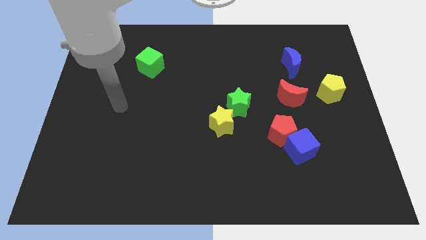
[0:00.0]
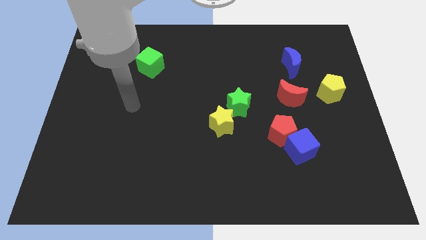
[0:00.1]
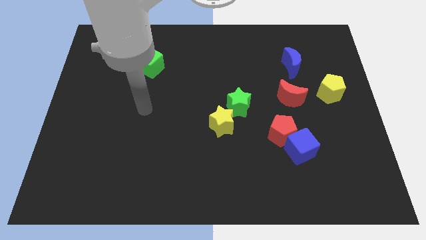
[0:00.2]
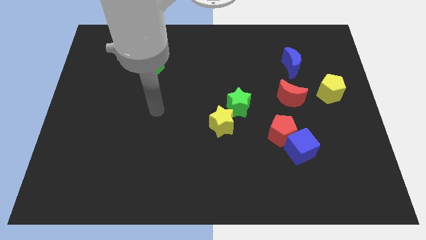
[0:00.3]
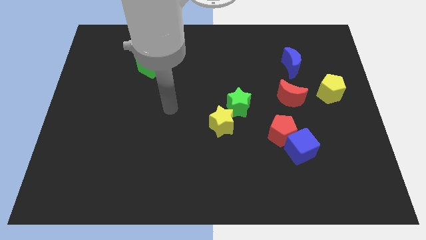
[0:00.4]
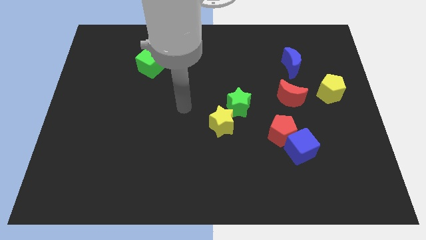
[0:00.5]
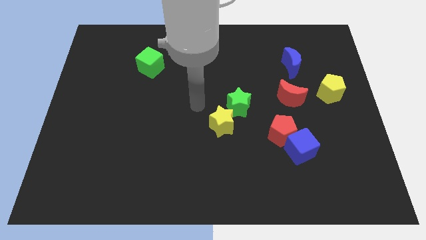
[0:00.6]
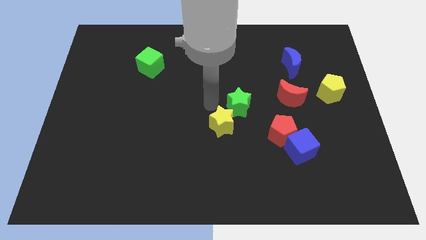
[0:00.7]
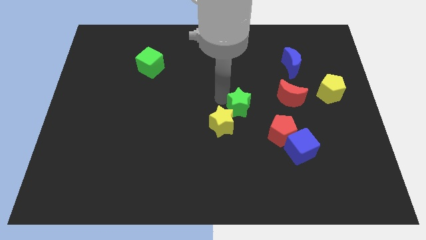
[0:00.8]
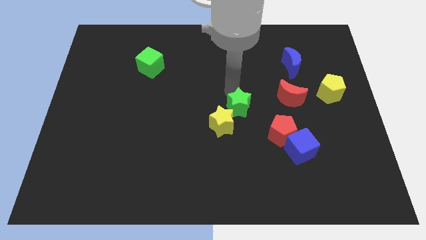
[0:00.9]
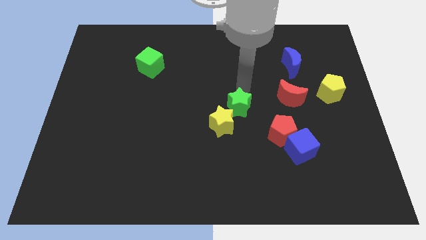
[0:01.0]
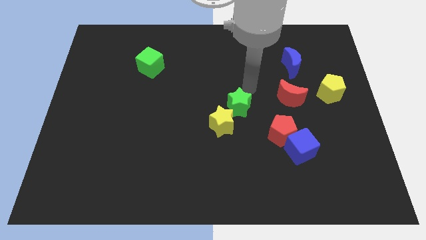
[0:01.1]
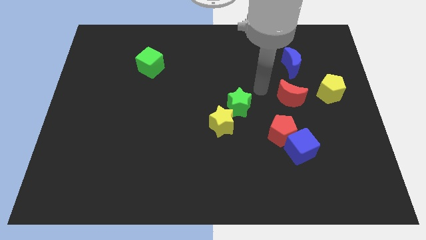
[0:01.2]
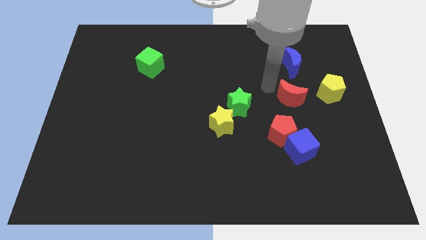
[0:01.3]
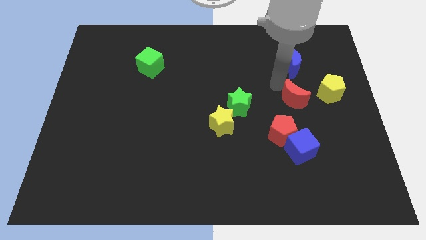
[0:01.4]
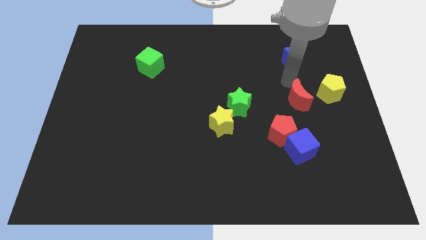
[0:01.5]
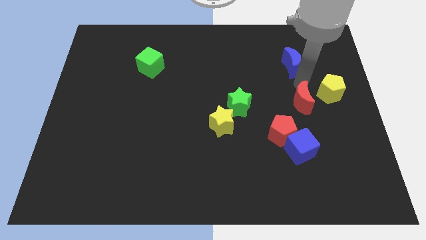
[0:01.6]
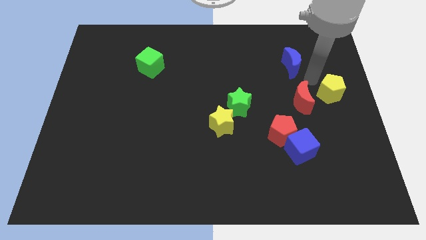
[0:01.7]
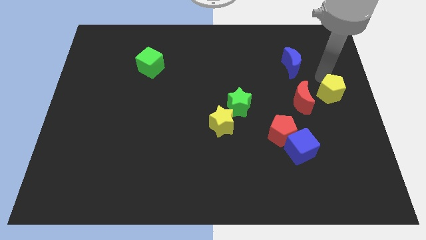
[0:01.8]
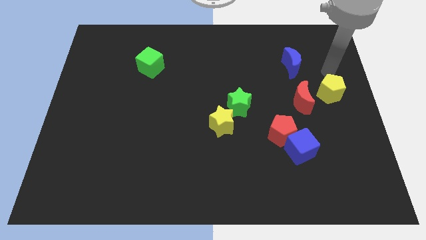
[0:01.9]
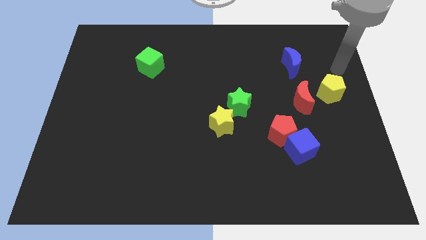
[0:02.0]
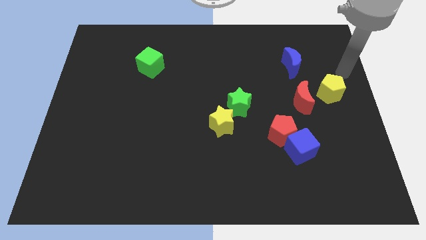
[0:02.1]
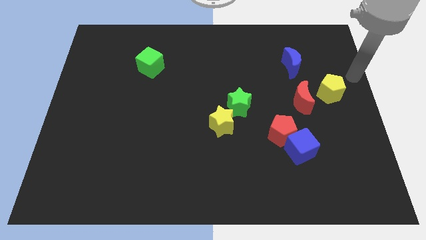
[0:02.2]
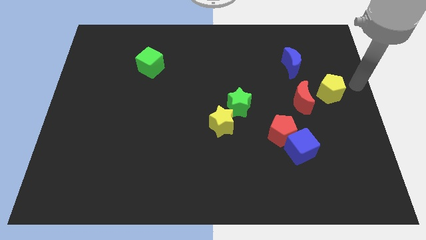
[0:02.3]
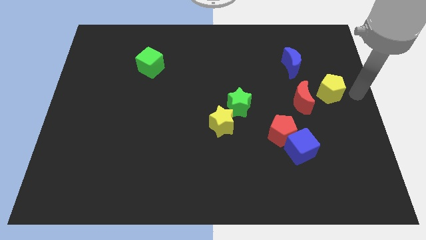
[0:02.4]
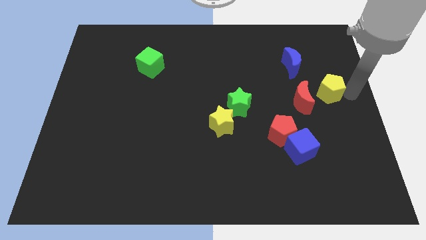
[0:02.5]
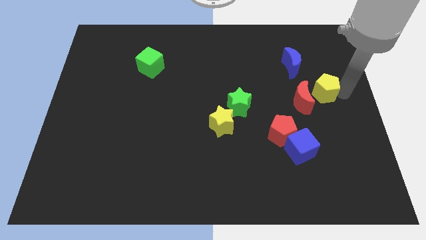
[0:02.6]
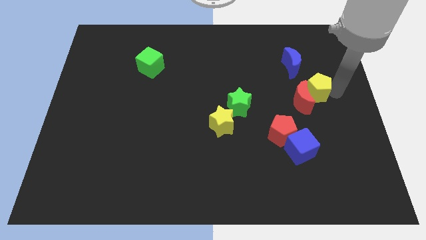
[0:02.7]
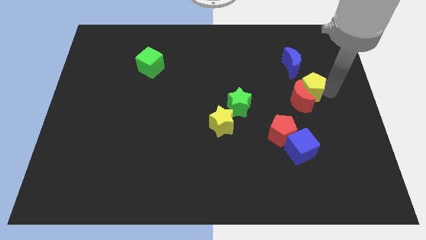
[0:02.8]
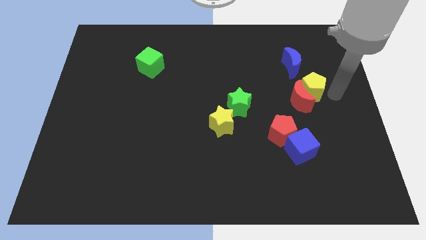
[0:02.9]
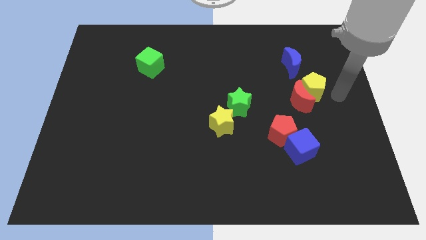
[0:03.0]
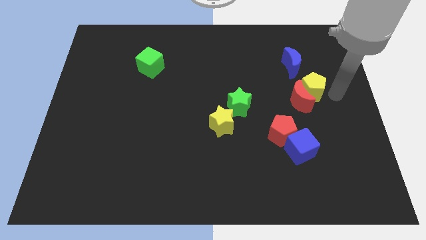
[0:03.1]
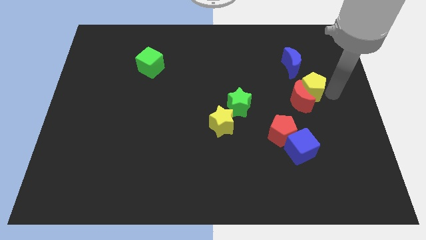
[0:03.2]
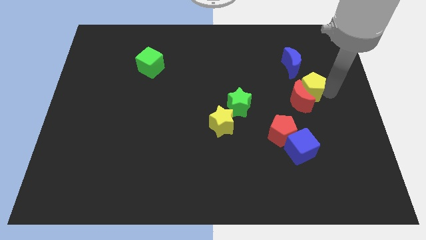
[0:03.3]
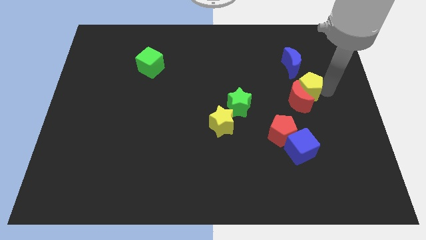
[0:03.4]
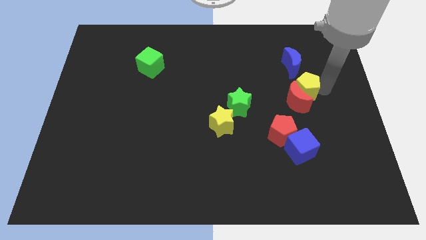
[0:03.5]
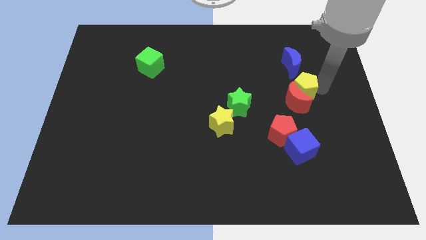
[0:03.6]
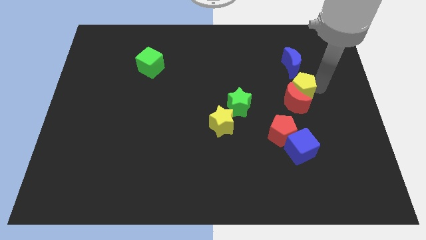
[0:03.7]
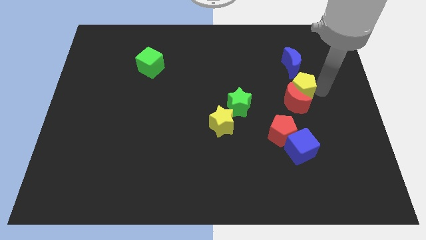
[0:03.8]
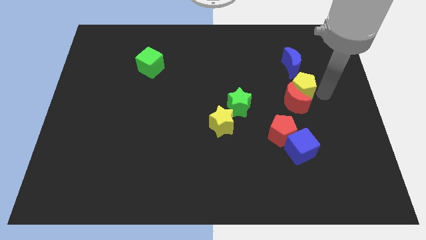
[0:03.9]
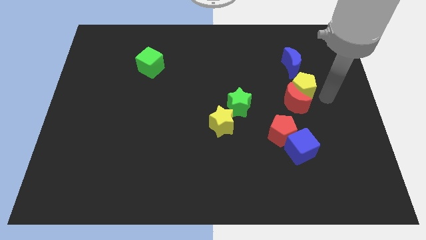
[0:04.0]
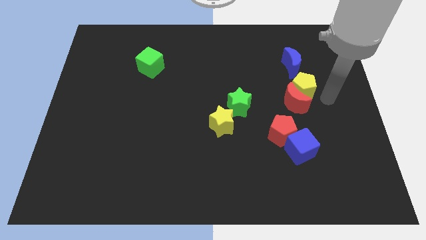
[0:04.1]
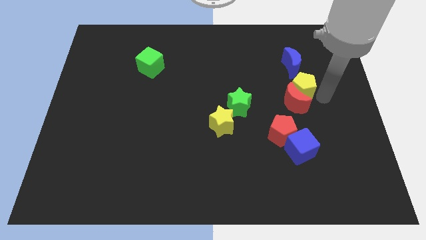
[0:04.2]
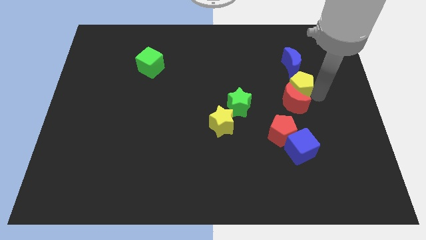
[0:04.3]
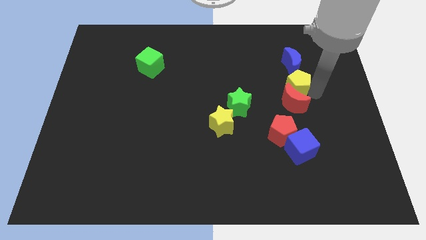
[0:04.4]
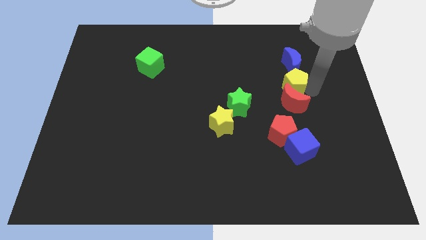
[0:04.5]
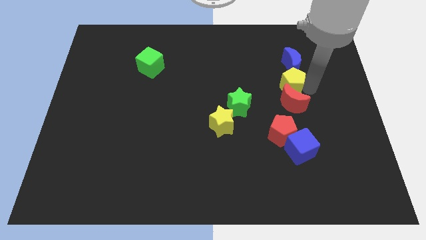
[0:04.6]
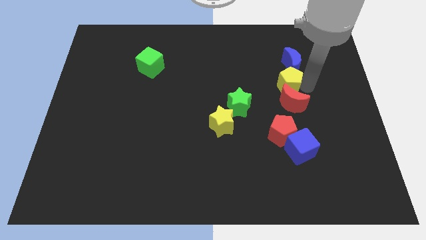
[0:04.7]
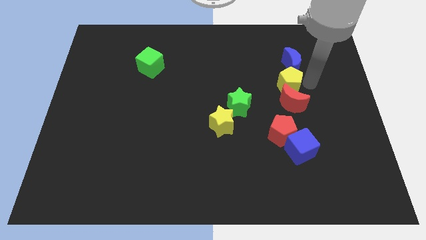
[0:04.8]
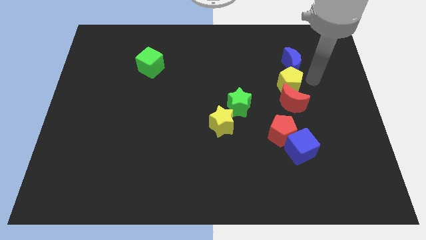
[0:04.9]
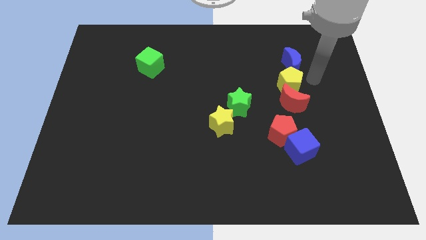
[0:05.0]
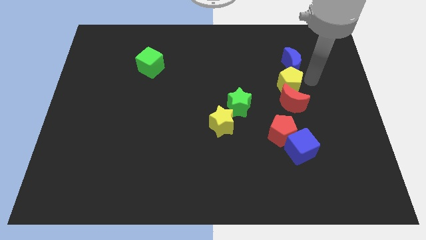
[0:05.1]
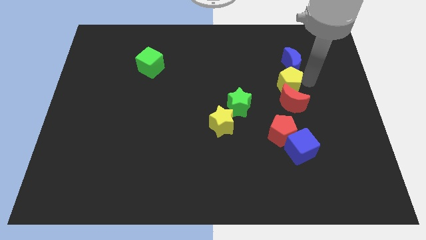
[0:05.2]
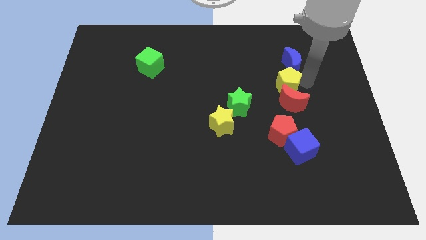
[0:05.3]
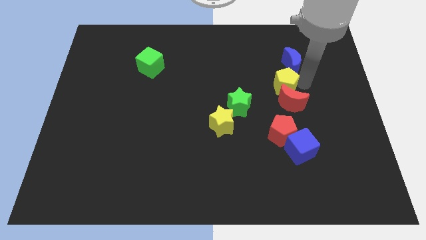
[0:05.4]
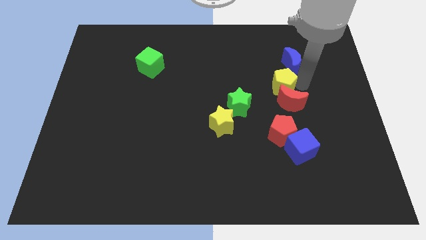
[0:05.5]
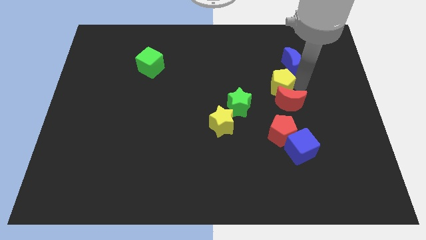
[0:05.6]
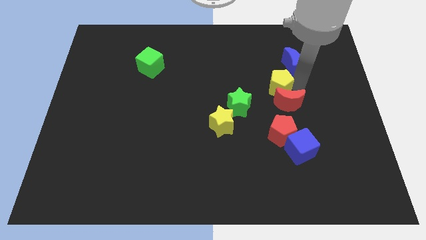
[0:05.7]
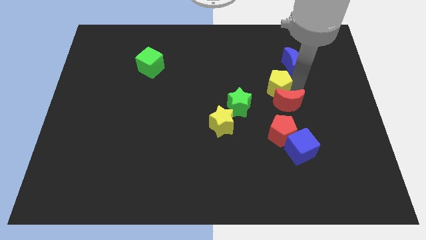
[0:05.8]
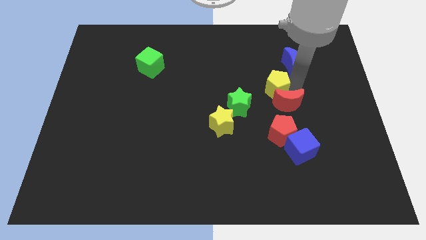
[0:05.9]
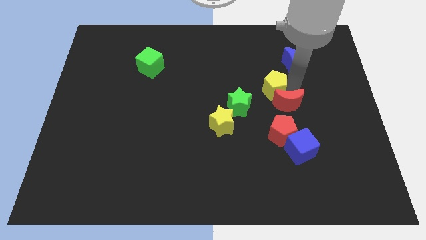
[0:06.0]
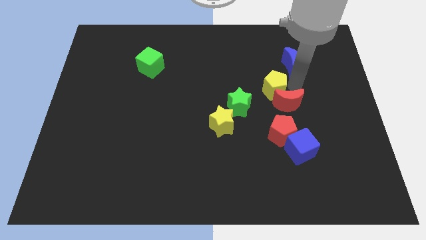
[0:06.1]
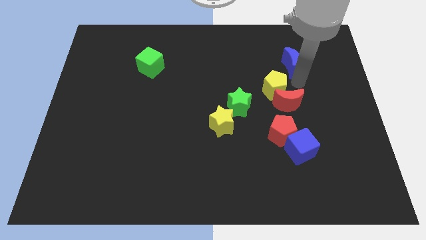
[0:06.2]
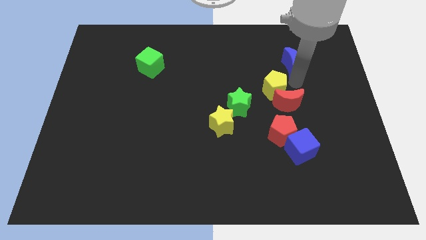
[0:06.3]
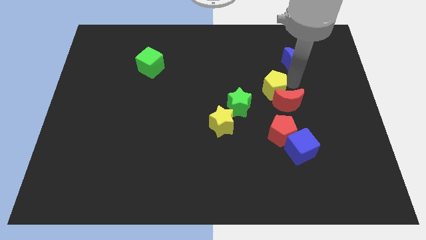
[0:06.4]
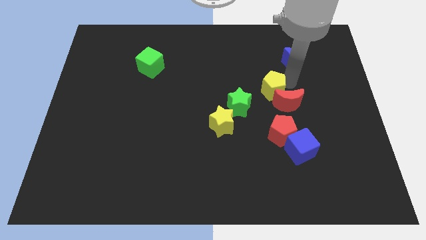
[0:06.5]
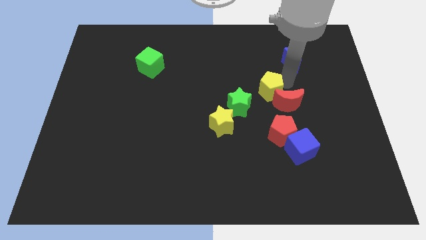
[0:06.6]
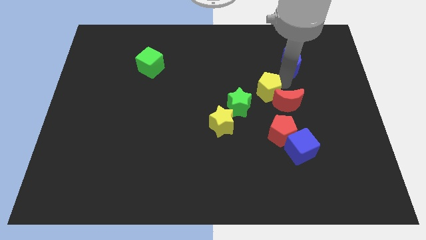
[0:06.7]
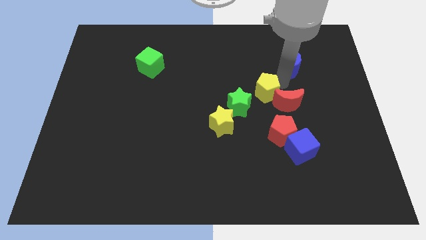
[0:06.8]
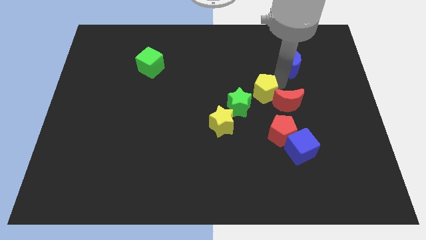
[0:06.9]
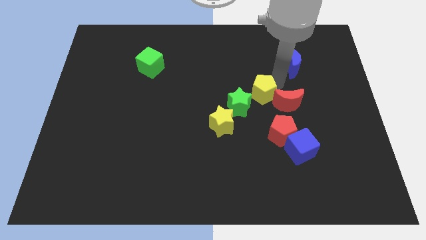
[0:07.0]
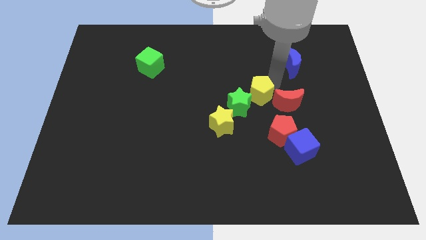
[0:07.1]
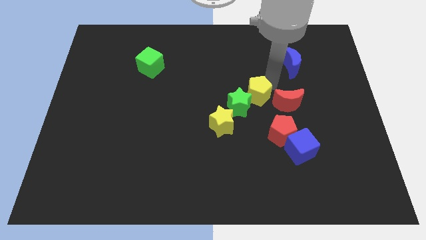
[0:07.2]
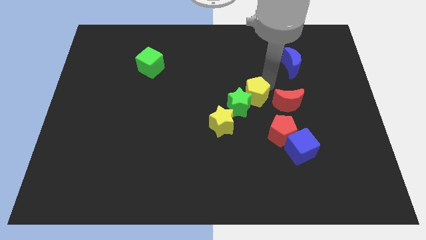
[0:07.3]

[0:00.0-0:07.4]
put the yellow pentagon towards the green star
